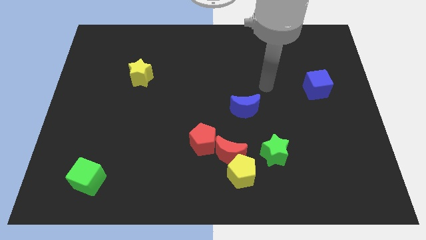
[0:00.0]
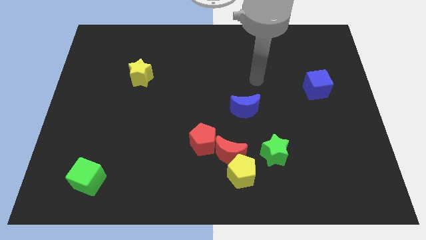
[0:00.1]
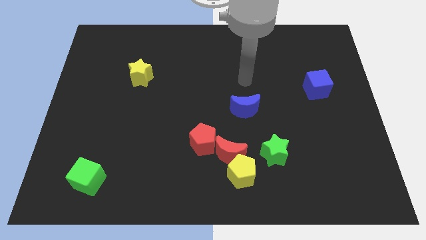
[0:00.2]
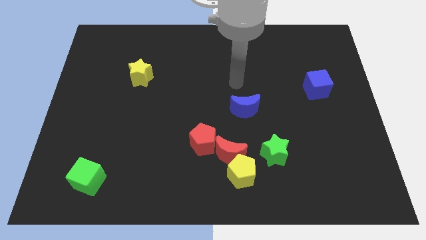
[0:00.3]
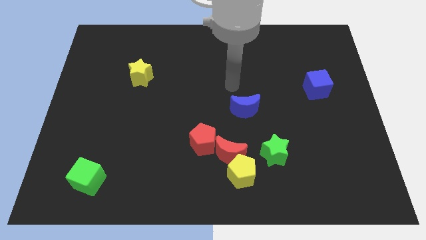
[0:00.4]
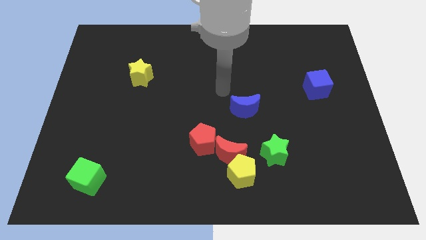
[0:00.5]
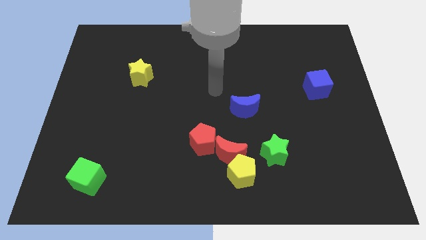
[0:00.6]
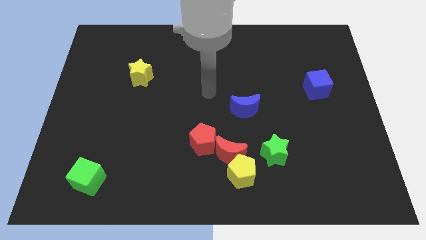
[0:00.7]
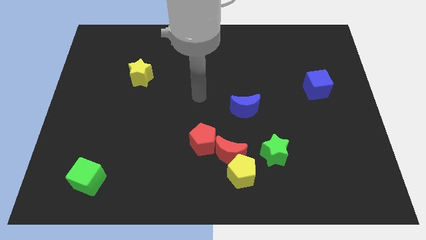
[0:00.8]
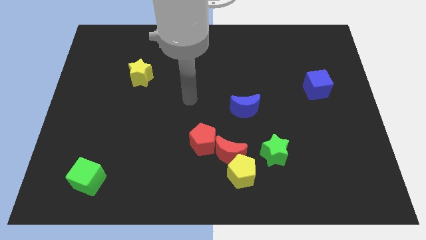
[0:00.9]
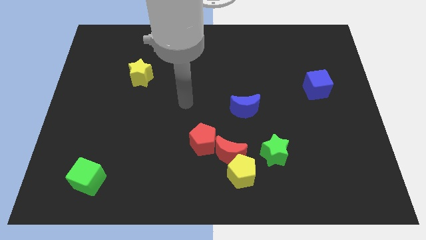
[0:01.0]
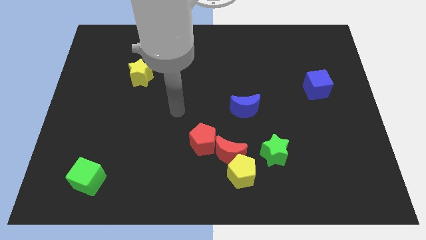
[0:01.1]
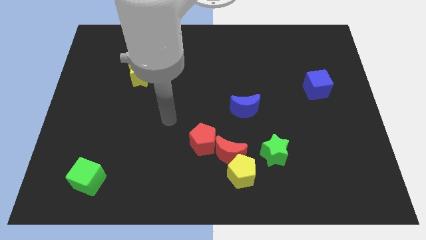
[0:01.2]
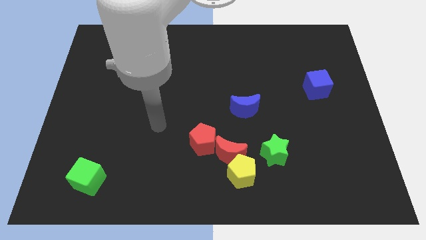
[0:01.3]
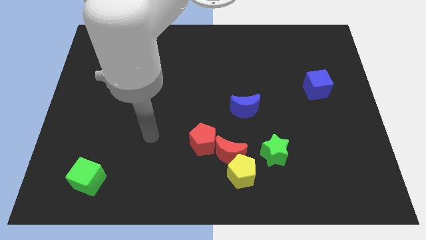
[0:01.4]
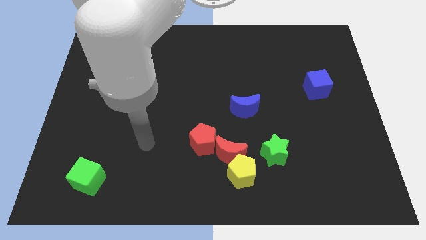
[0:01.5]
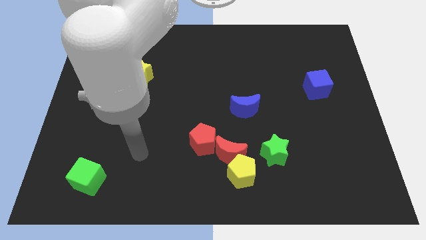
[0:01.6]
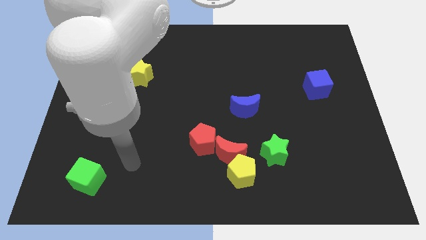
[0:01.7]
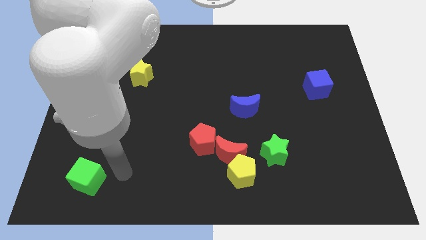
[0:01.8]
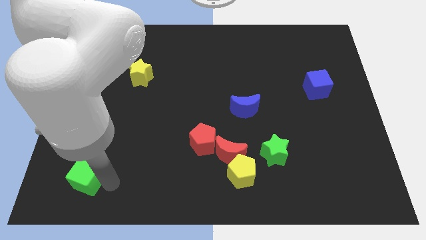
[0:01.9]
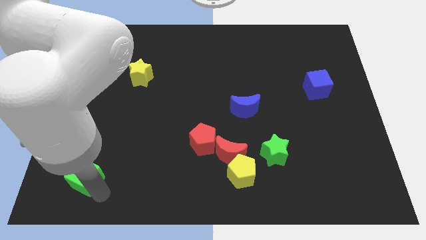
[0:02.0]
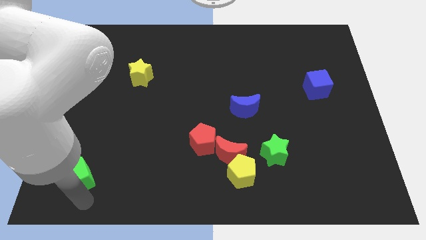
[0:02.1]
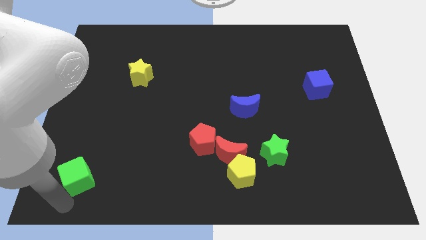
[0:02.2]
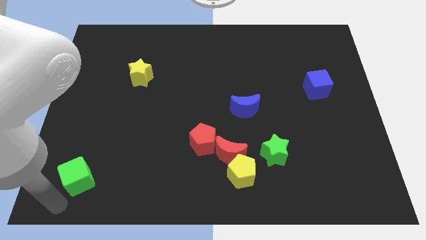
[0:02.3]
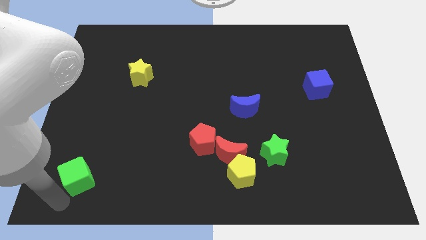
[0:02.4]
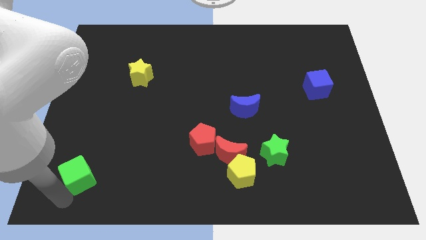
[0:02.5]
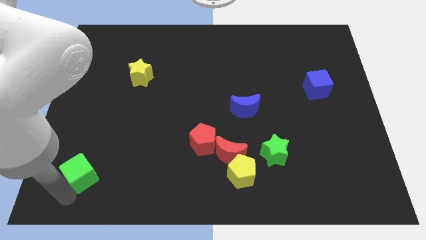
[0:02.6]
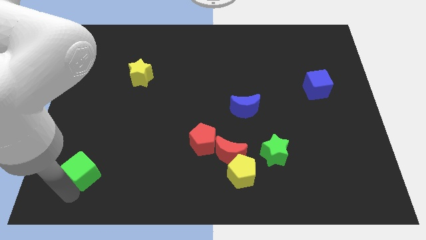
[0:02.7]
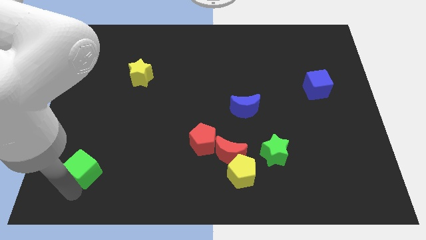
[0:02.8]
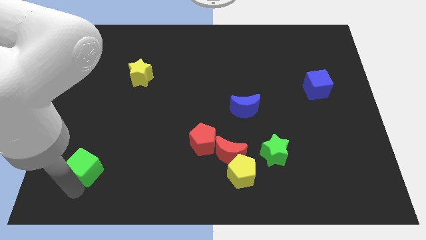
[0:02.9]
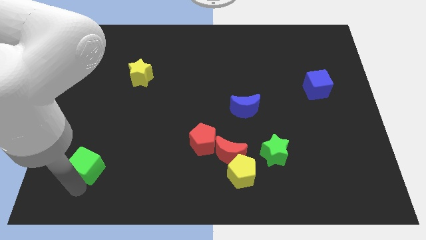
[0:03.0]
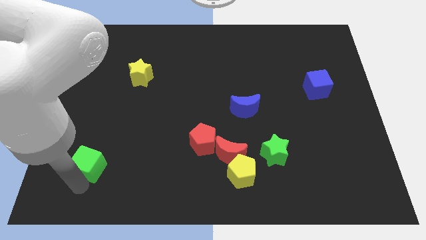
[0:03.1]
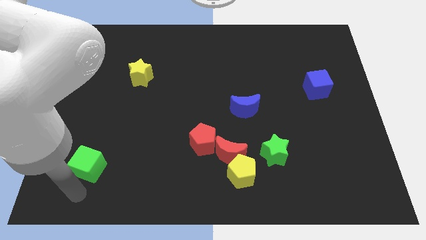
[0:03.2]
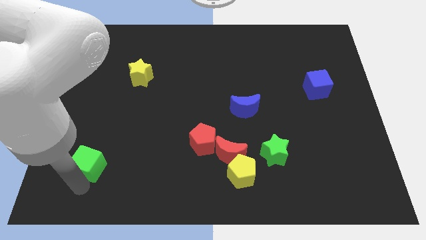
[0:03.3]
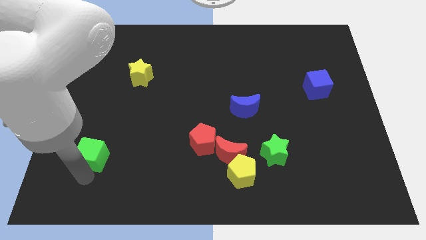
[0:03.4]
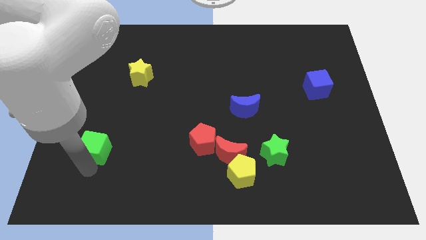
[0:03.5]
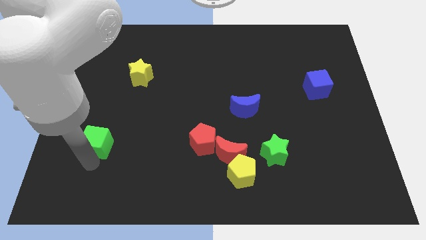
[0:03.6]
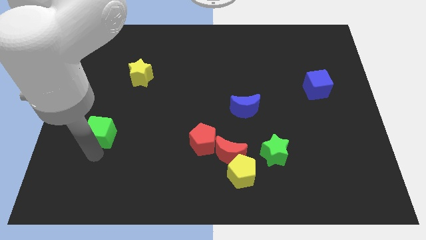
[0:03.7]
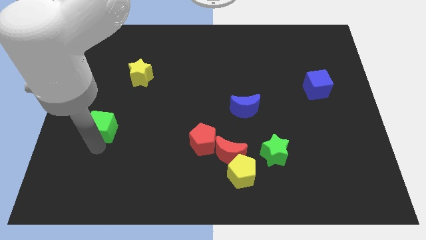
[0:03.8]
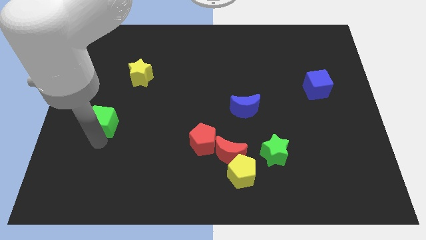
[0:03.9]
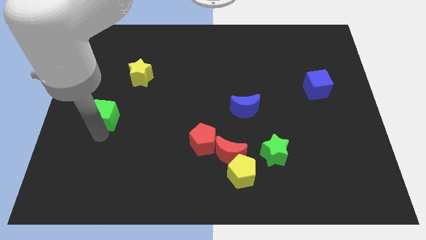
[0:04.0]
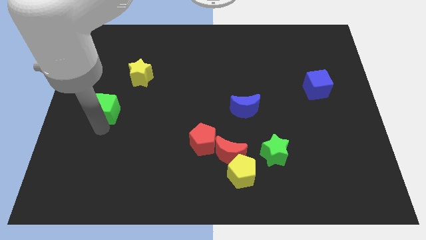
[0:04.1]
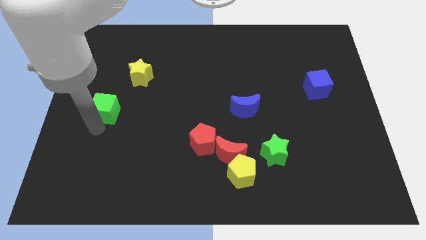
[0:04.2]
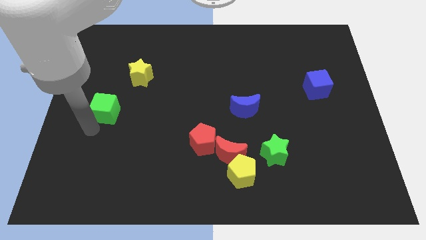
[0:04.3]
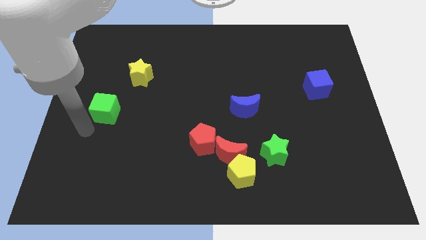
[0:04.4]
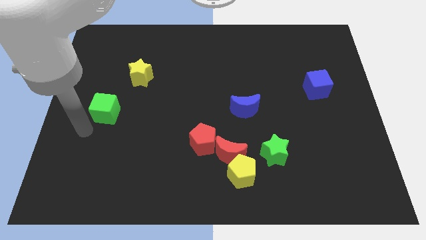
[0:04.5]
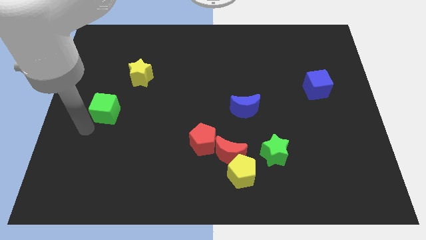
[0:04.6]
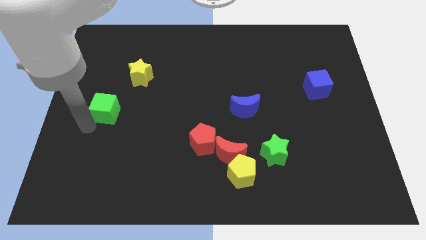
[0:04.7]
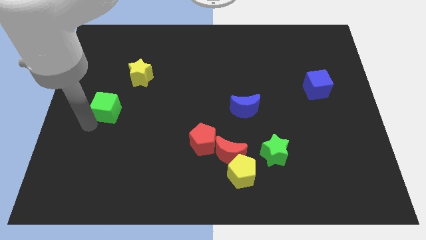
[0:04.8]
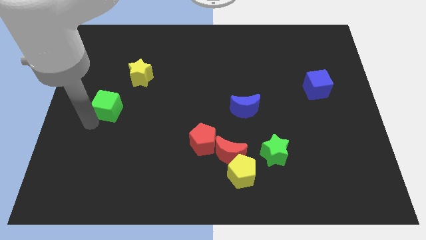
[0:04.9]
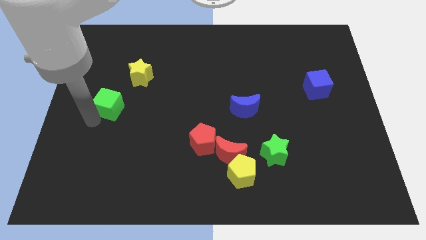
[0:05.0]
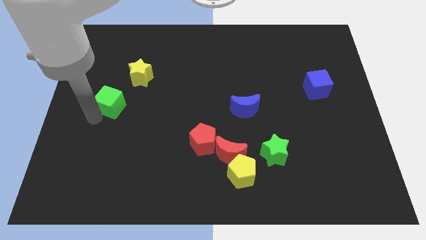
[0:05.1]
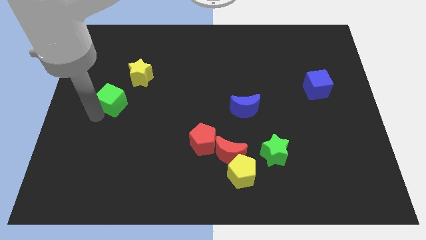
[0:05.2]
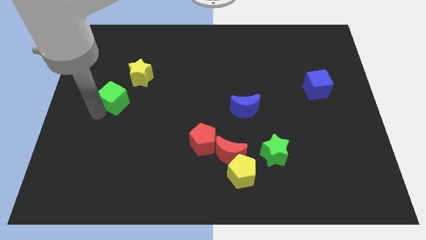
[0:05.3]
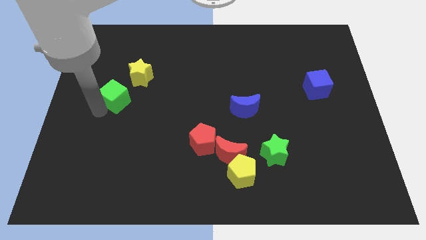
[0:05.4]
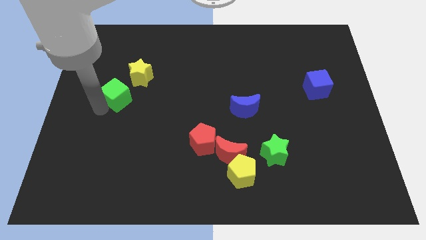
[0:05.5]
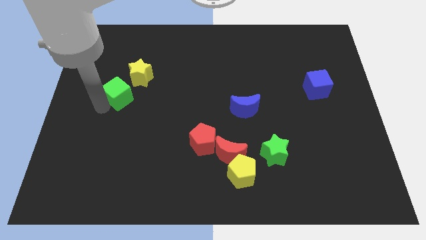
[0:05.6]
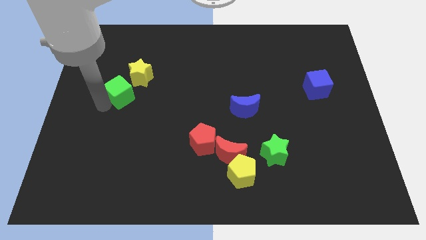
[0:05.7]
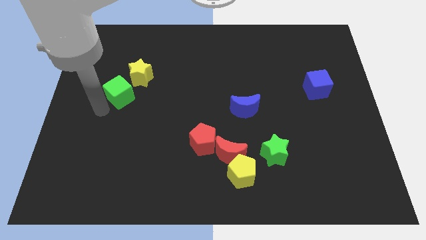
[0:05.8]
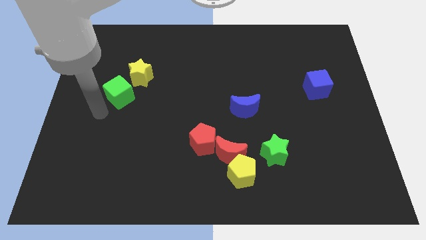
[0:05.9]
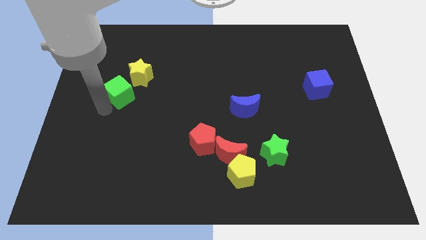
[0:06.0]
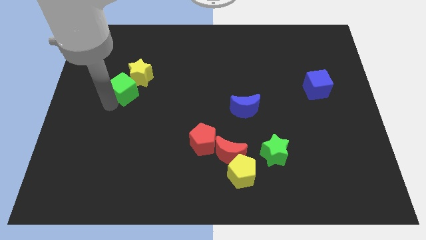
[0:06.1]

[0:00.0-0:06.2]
slide the green cube close to the yellow star

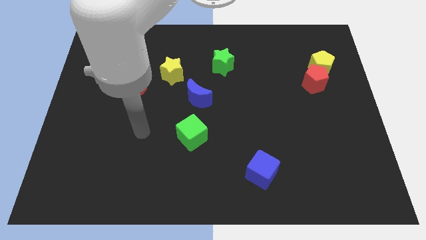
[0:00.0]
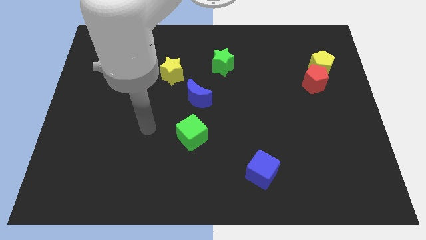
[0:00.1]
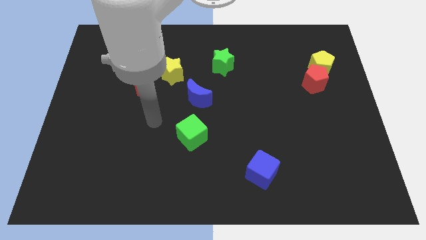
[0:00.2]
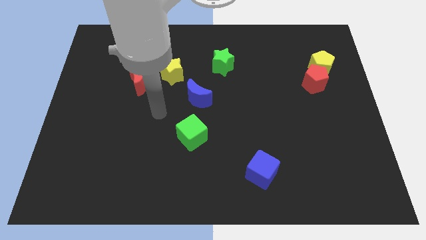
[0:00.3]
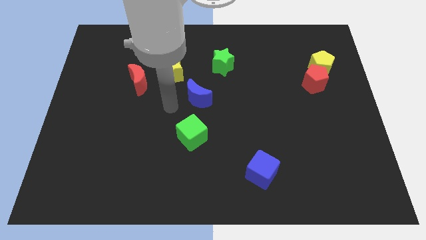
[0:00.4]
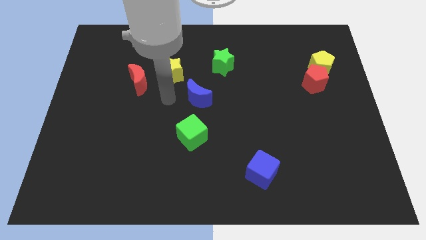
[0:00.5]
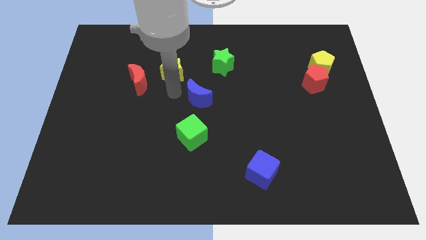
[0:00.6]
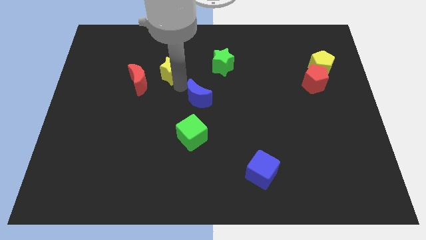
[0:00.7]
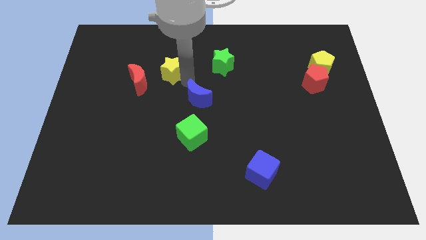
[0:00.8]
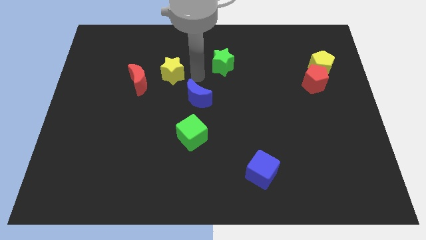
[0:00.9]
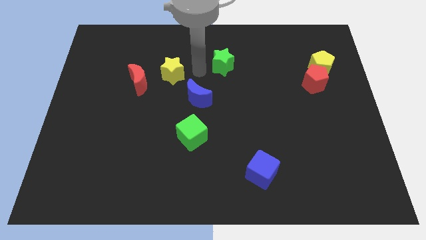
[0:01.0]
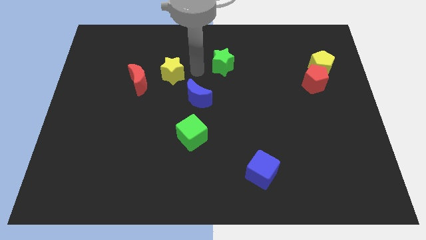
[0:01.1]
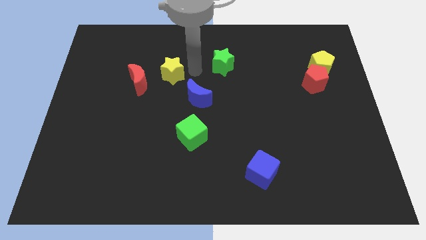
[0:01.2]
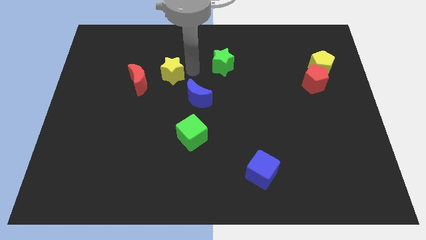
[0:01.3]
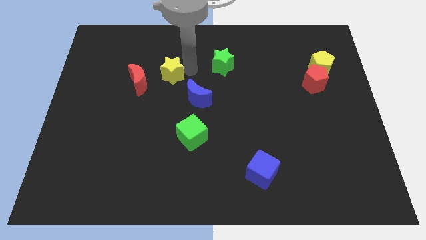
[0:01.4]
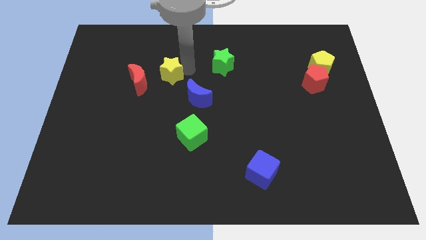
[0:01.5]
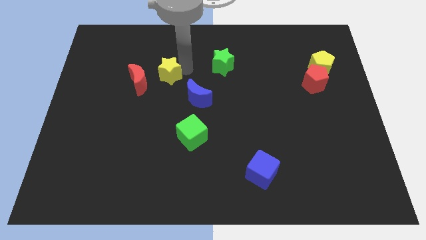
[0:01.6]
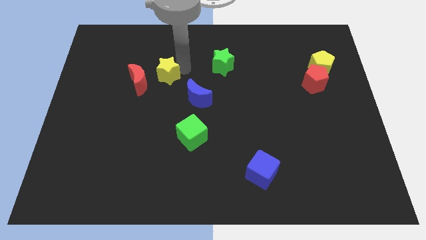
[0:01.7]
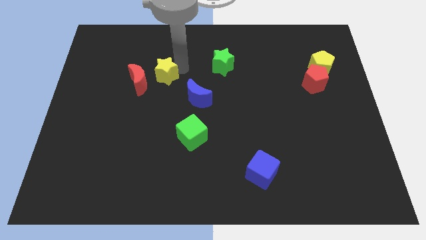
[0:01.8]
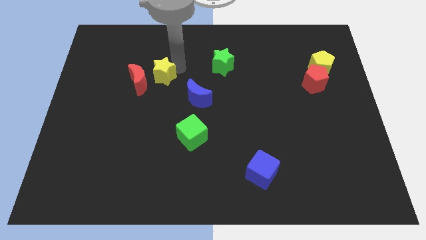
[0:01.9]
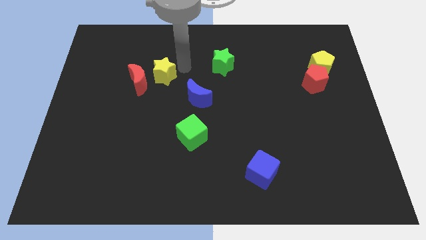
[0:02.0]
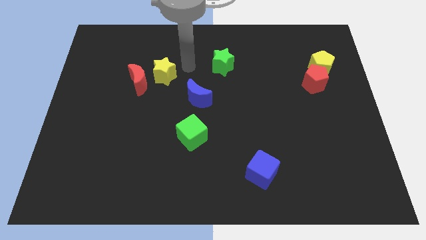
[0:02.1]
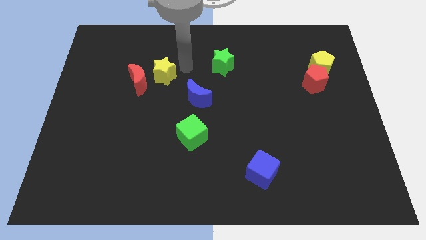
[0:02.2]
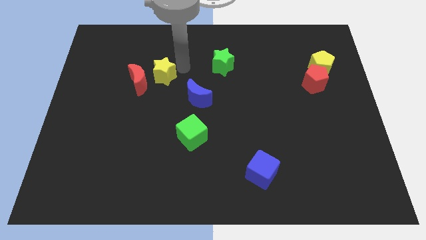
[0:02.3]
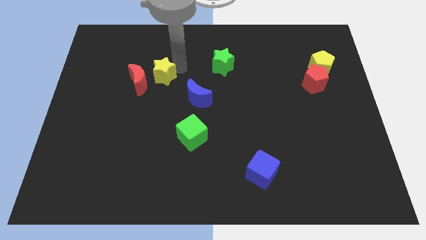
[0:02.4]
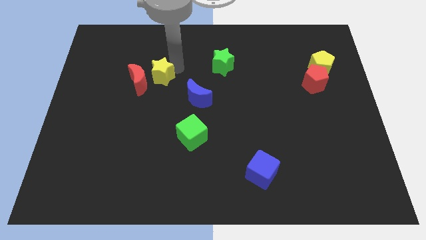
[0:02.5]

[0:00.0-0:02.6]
put the yellow star next to the red moon
